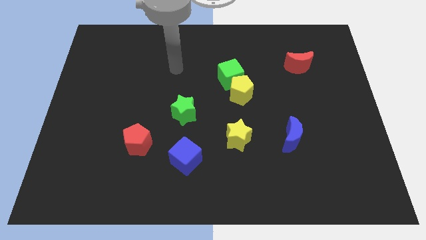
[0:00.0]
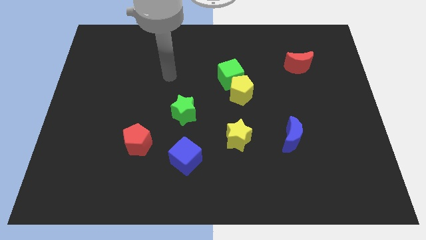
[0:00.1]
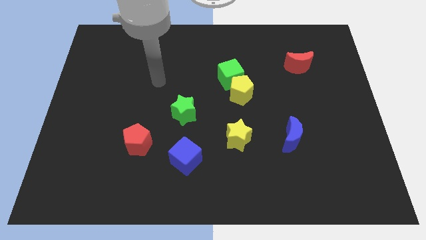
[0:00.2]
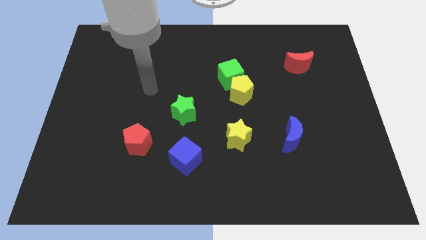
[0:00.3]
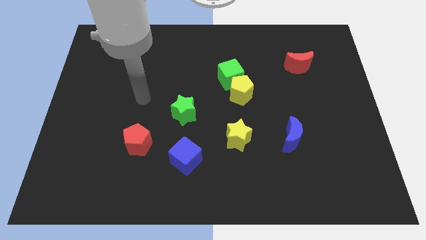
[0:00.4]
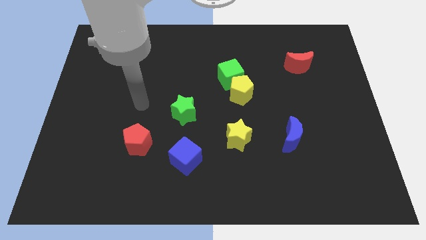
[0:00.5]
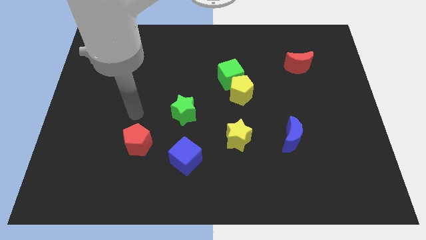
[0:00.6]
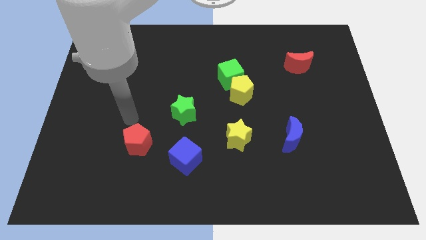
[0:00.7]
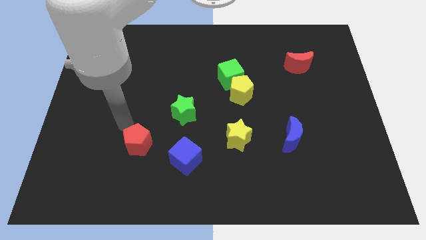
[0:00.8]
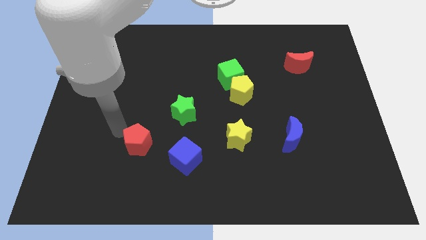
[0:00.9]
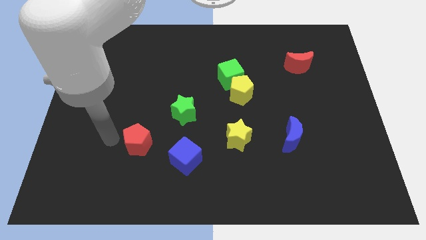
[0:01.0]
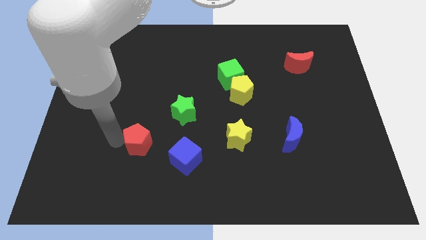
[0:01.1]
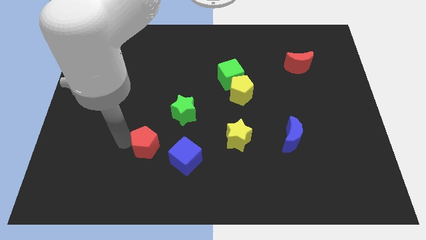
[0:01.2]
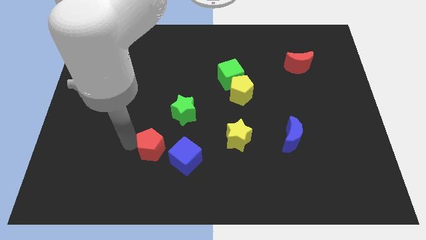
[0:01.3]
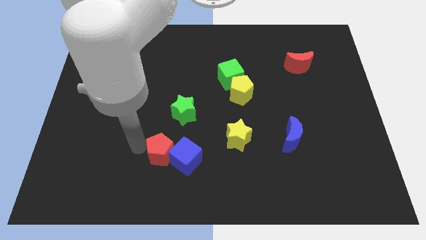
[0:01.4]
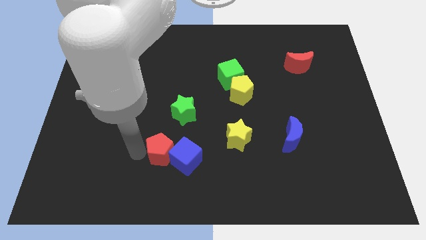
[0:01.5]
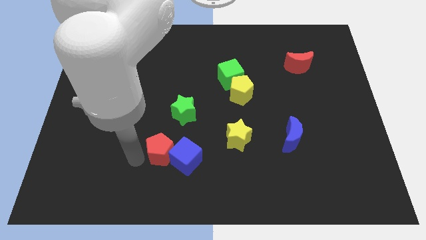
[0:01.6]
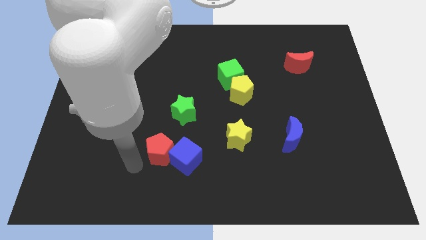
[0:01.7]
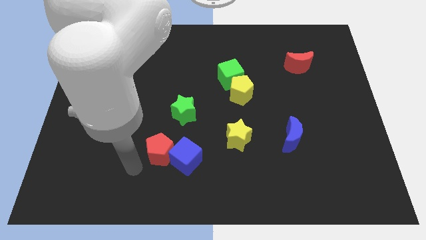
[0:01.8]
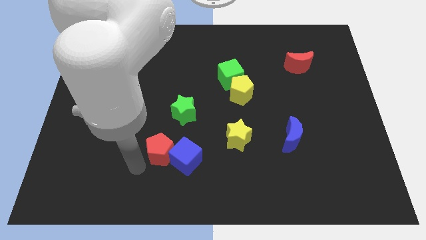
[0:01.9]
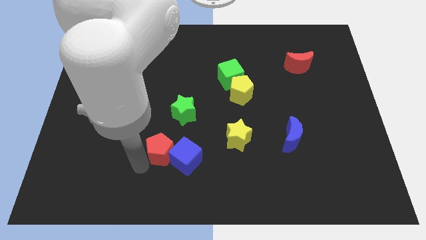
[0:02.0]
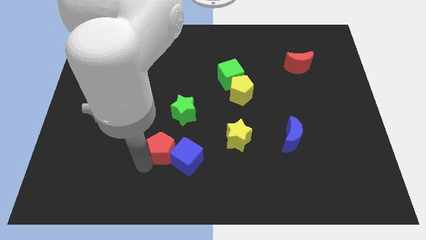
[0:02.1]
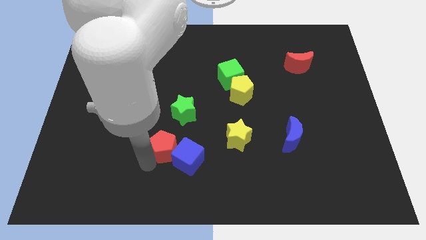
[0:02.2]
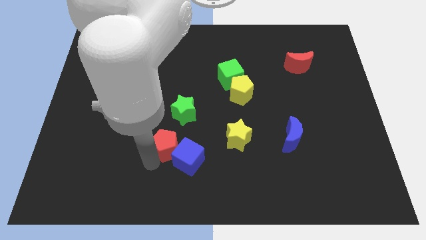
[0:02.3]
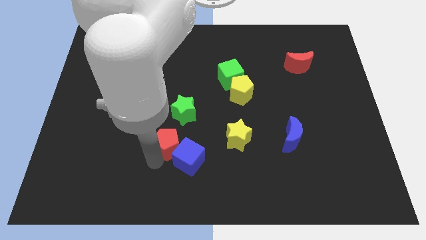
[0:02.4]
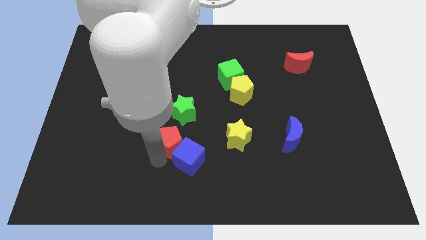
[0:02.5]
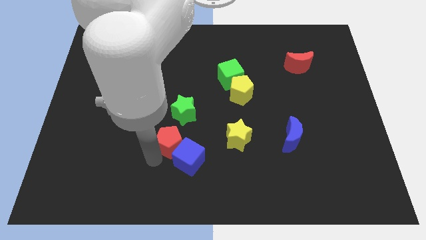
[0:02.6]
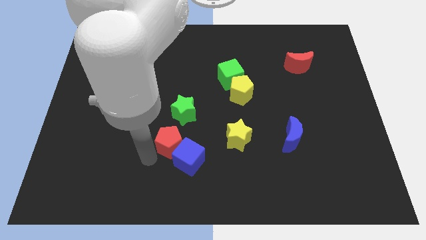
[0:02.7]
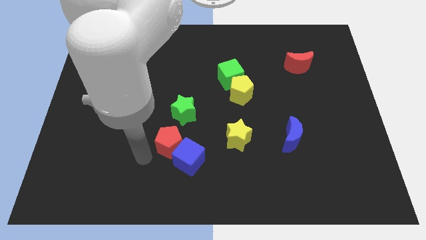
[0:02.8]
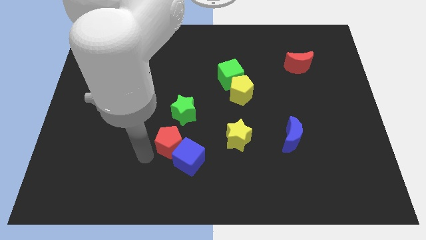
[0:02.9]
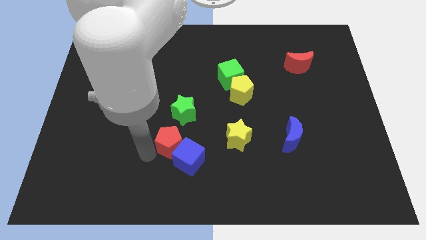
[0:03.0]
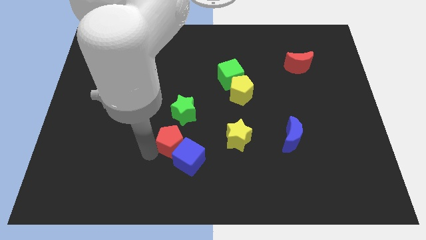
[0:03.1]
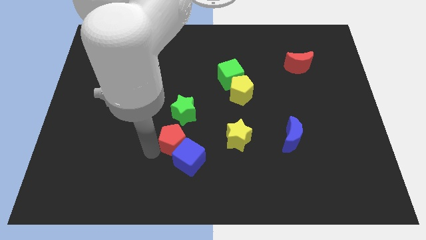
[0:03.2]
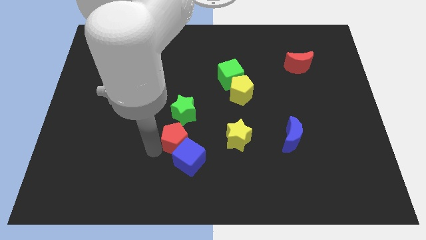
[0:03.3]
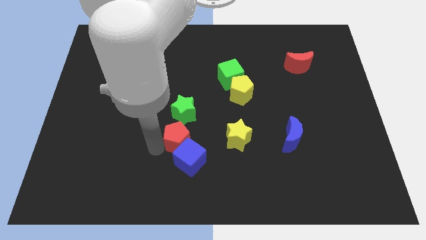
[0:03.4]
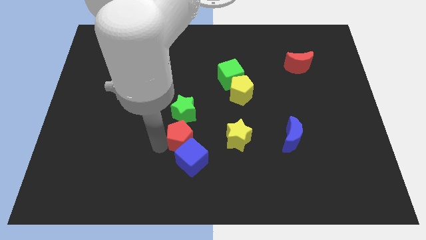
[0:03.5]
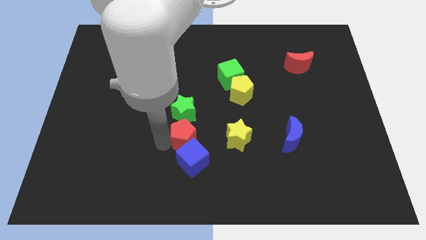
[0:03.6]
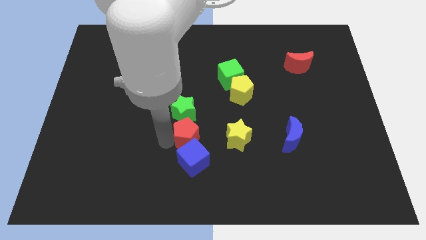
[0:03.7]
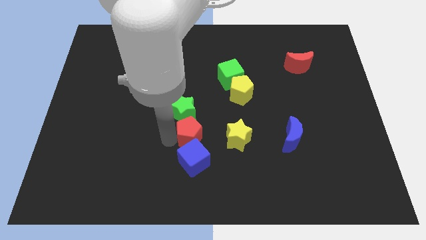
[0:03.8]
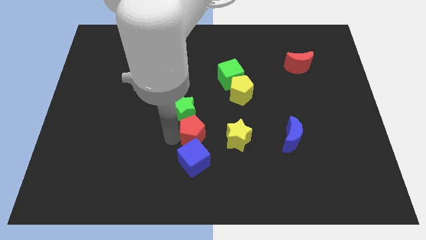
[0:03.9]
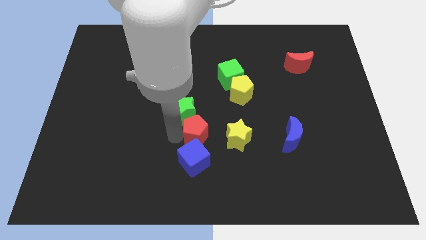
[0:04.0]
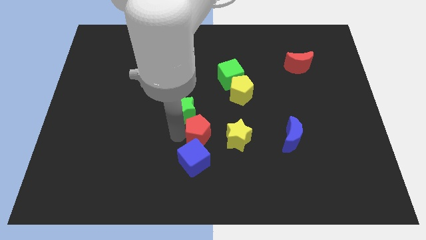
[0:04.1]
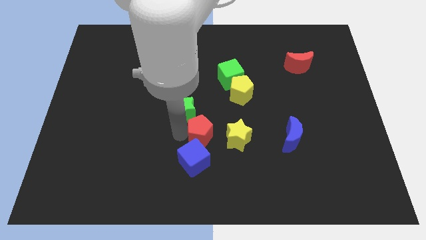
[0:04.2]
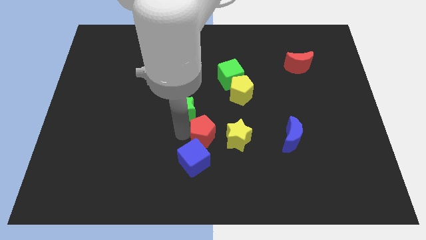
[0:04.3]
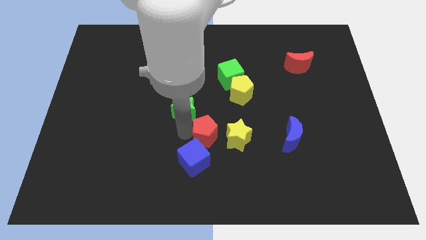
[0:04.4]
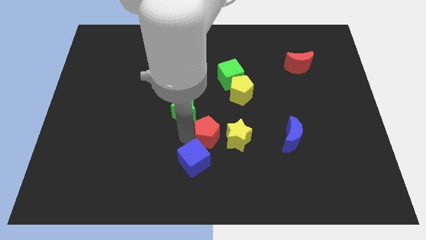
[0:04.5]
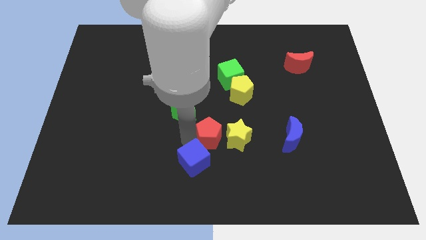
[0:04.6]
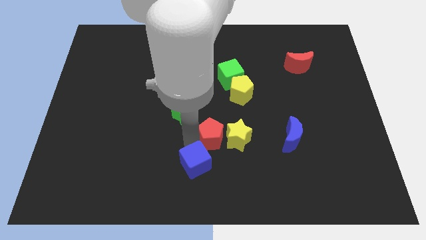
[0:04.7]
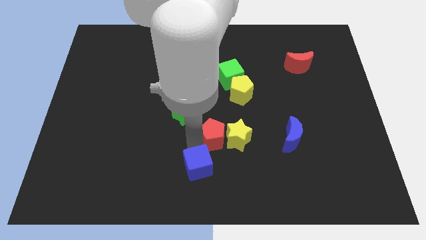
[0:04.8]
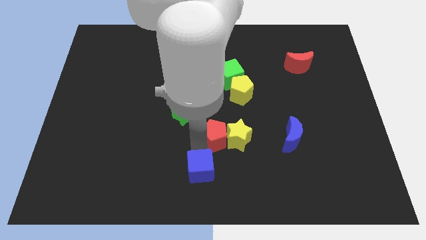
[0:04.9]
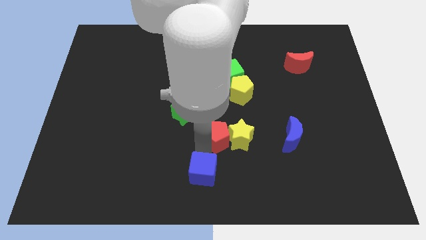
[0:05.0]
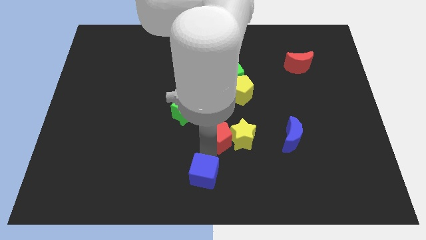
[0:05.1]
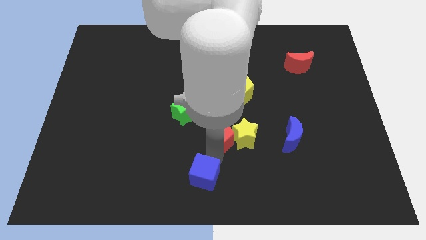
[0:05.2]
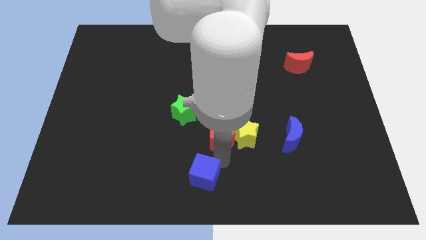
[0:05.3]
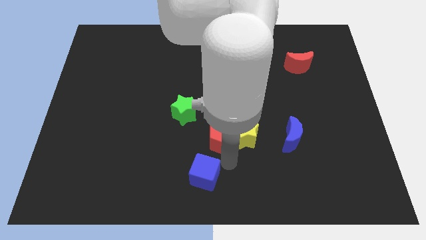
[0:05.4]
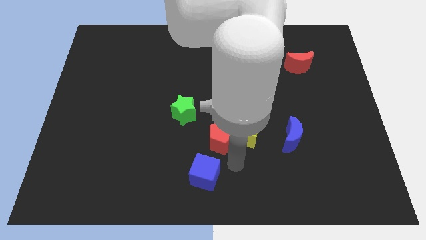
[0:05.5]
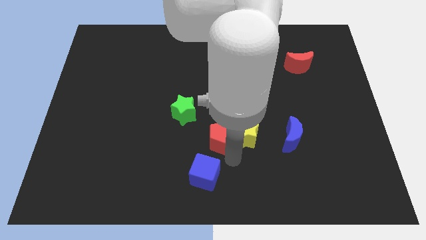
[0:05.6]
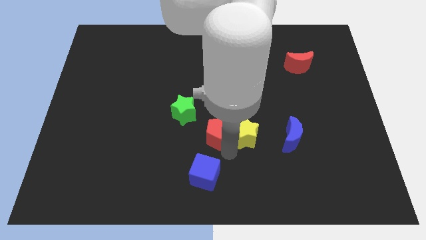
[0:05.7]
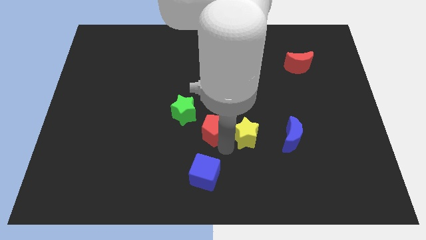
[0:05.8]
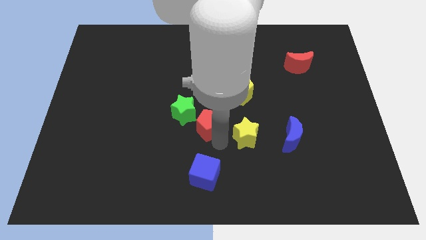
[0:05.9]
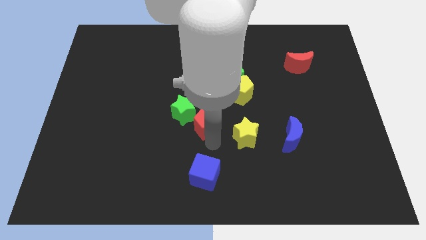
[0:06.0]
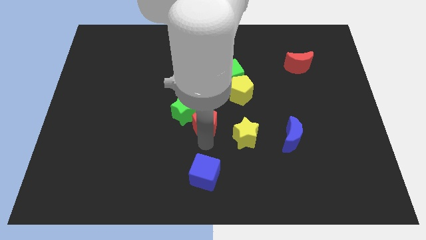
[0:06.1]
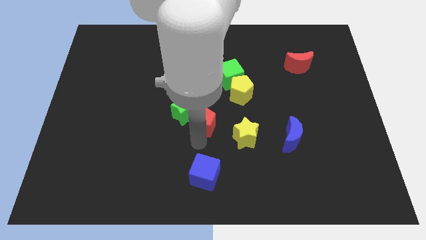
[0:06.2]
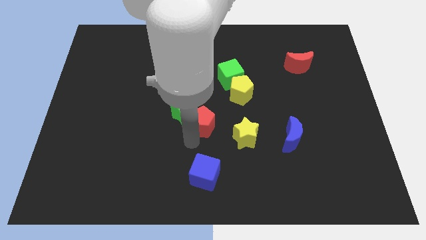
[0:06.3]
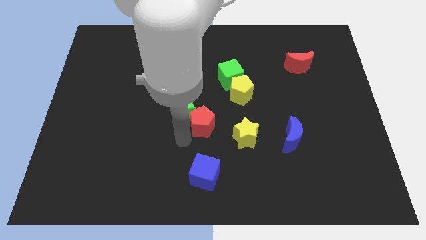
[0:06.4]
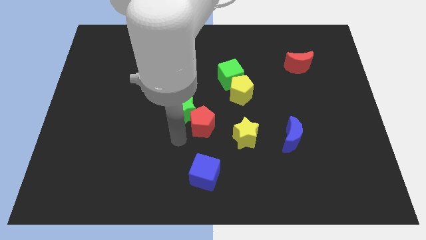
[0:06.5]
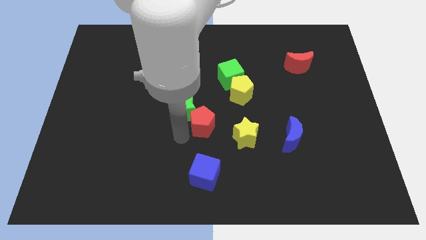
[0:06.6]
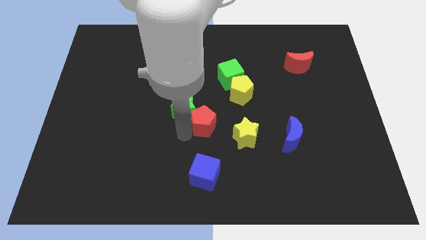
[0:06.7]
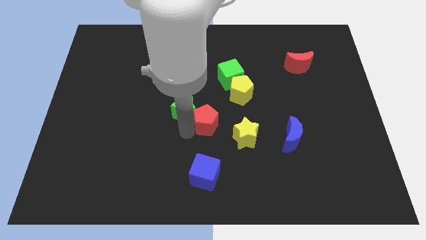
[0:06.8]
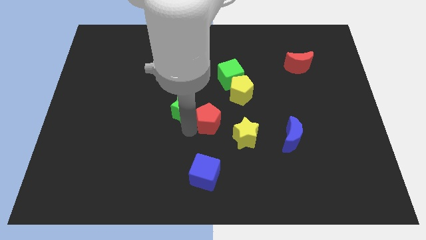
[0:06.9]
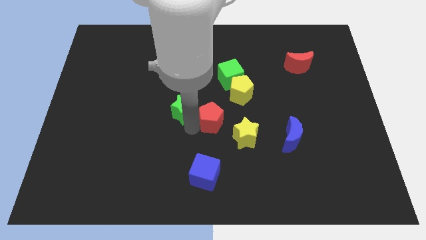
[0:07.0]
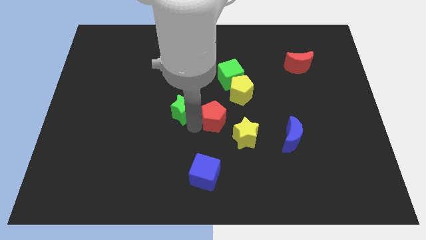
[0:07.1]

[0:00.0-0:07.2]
push the red pentagon to the bottom side of the green cube
